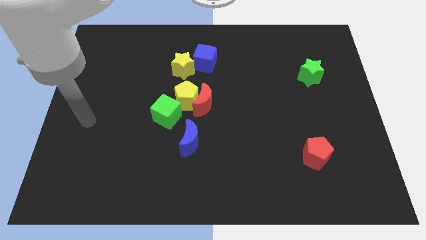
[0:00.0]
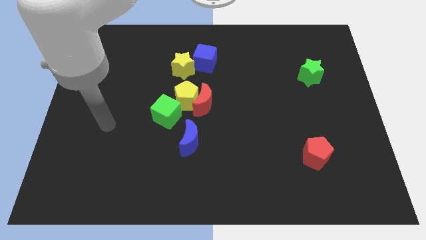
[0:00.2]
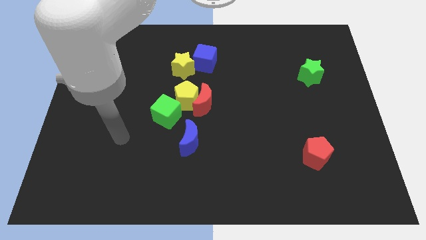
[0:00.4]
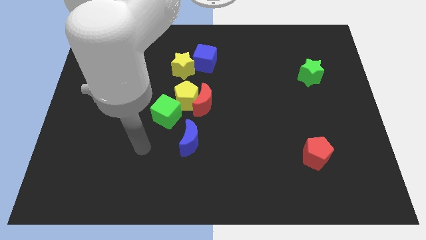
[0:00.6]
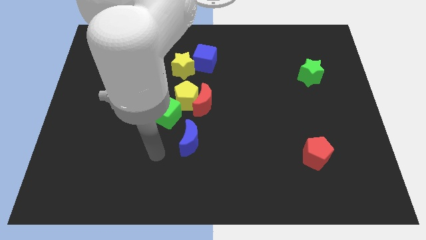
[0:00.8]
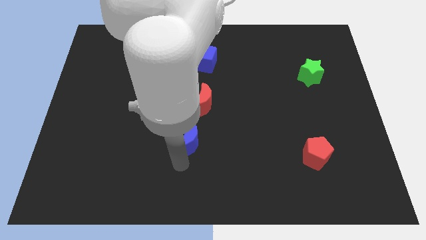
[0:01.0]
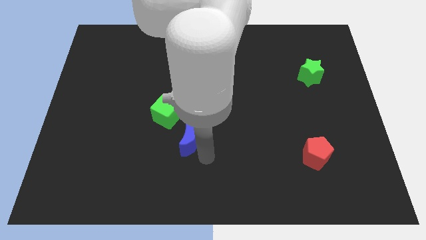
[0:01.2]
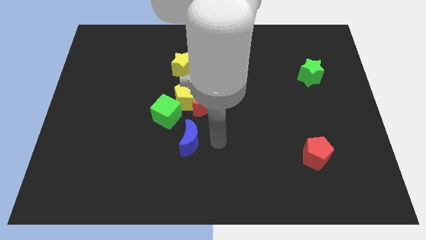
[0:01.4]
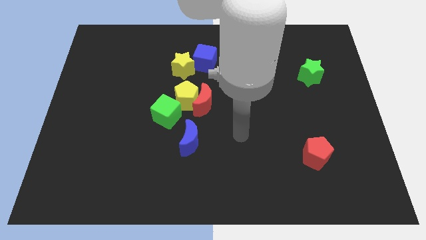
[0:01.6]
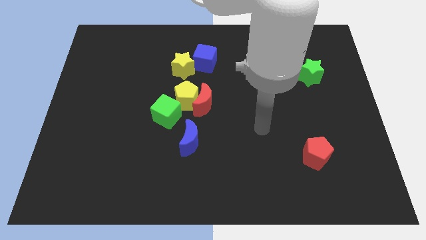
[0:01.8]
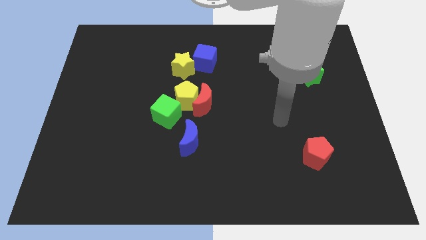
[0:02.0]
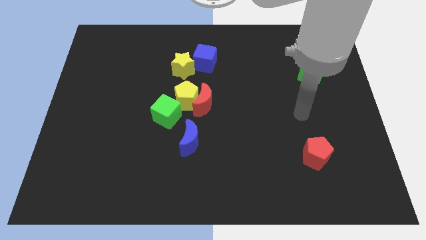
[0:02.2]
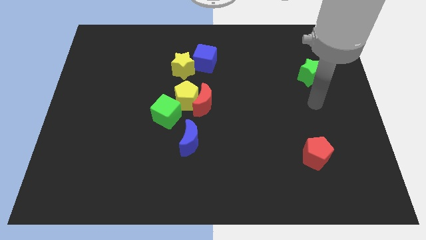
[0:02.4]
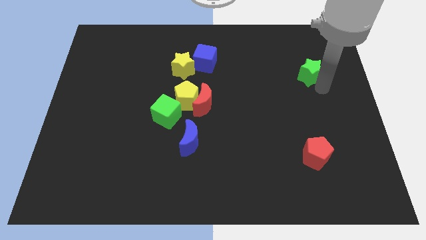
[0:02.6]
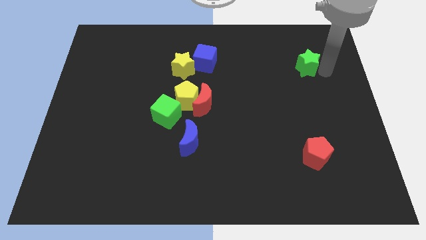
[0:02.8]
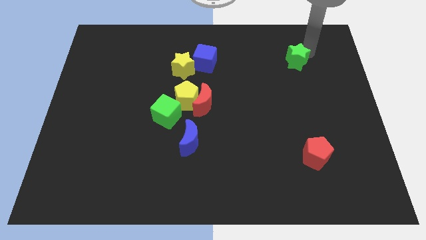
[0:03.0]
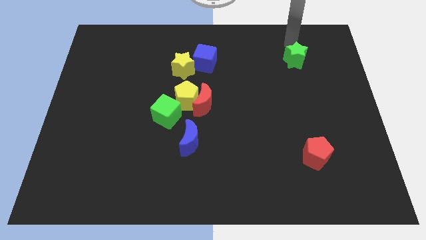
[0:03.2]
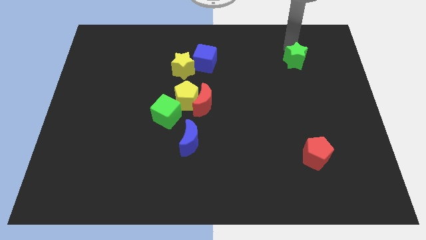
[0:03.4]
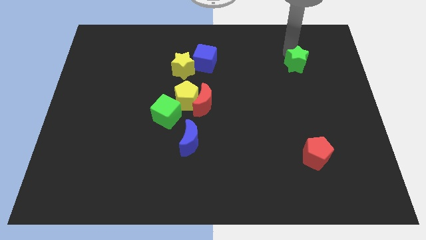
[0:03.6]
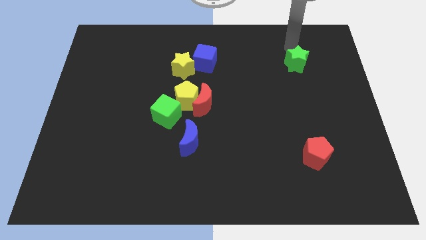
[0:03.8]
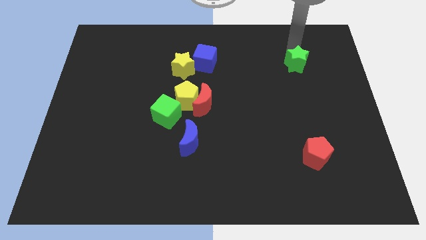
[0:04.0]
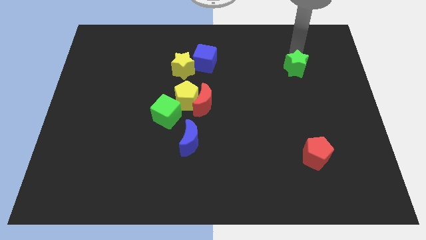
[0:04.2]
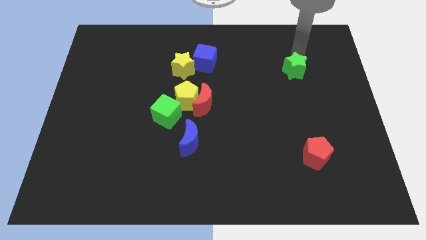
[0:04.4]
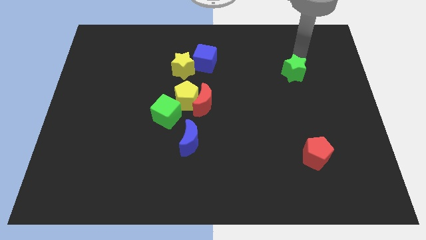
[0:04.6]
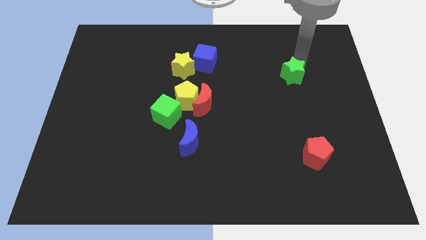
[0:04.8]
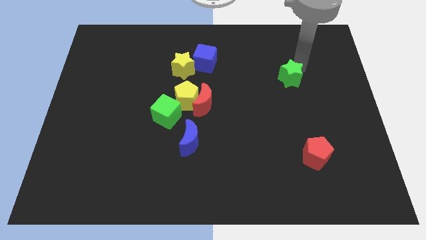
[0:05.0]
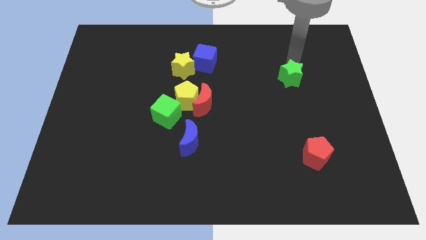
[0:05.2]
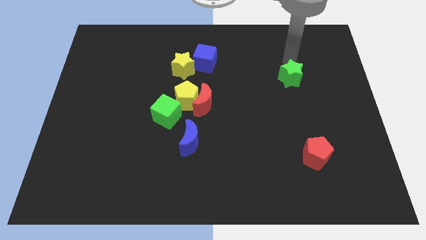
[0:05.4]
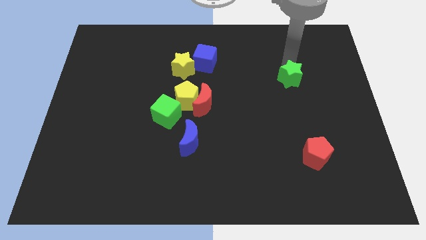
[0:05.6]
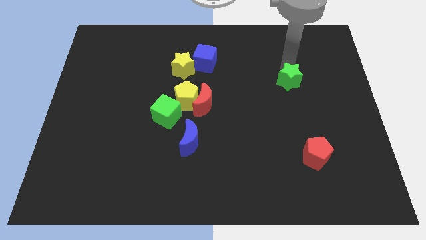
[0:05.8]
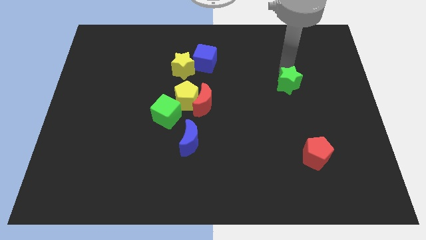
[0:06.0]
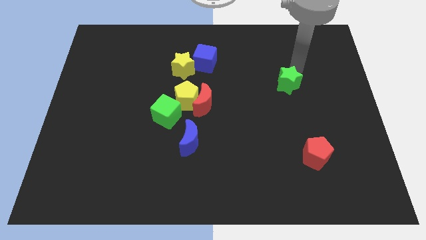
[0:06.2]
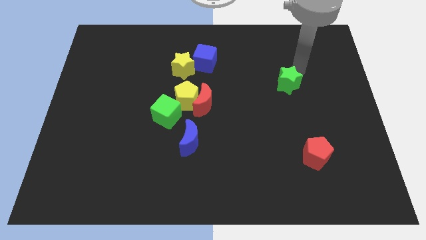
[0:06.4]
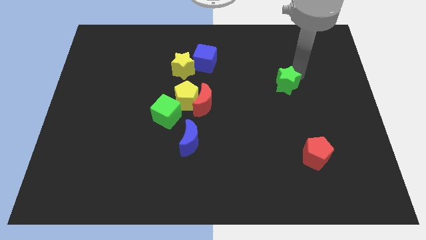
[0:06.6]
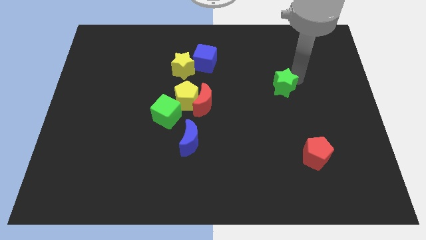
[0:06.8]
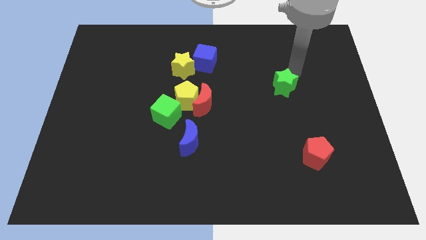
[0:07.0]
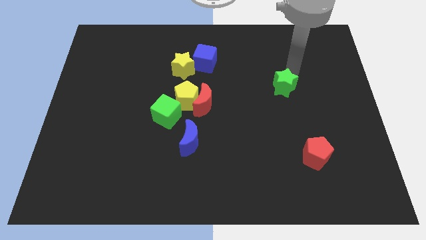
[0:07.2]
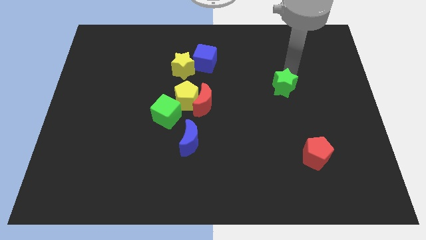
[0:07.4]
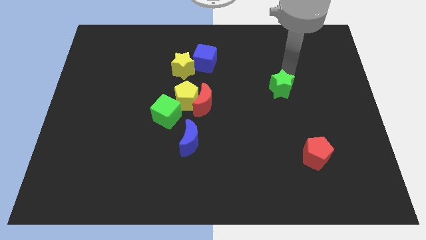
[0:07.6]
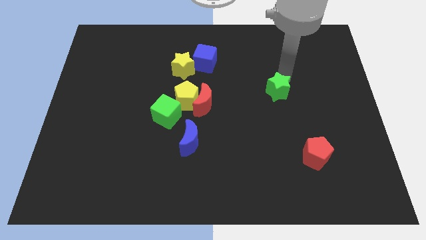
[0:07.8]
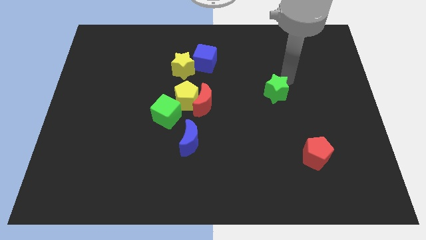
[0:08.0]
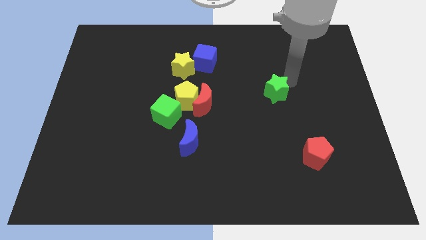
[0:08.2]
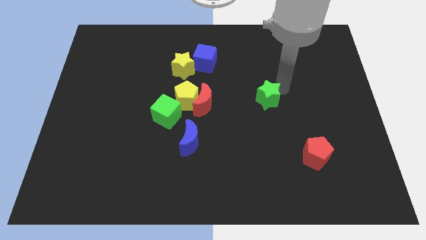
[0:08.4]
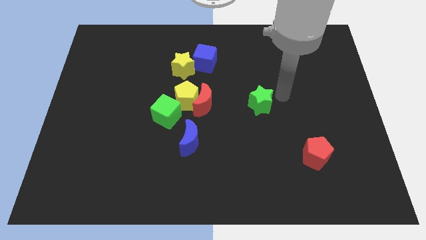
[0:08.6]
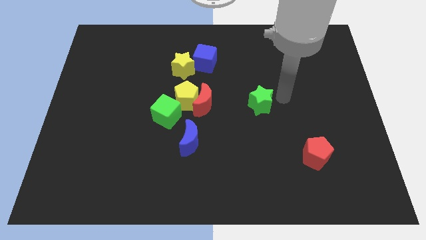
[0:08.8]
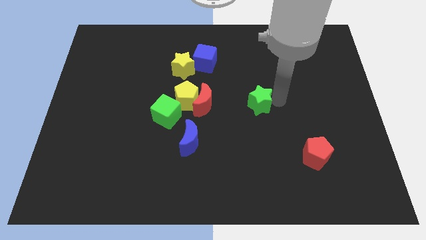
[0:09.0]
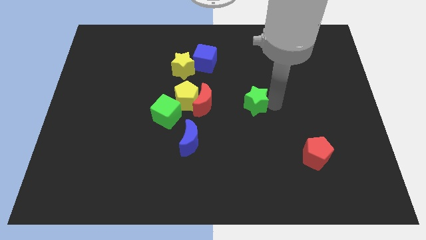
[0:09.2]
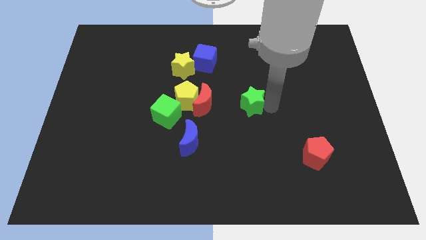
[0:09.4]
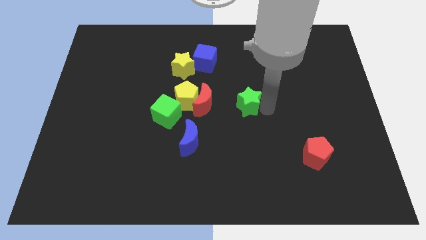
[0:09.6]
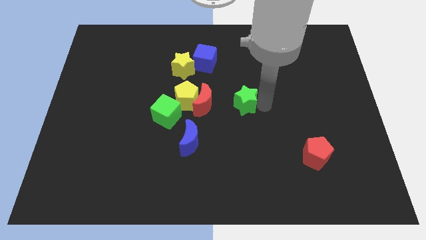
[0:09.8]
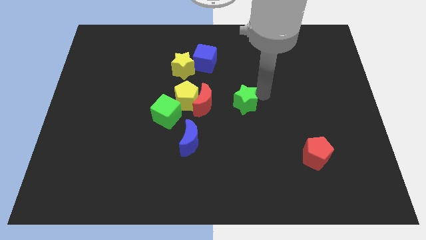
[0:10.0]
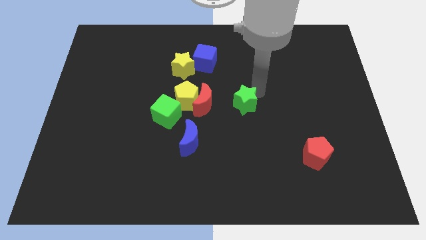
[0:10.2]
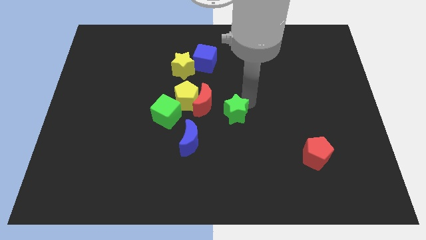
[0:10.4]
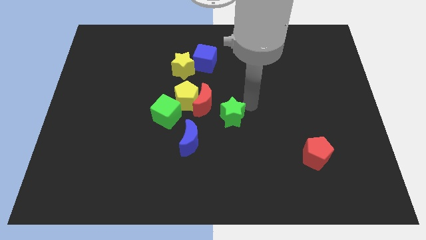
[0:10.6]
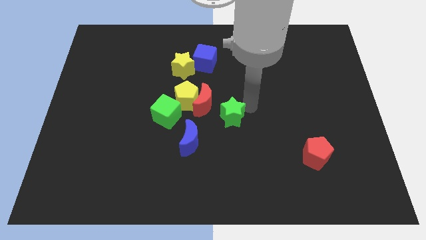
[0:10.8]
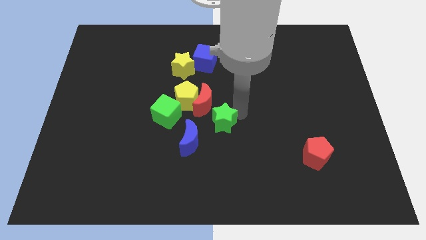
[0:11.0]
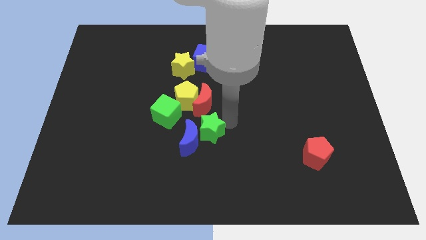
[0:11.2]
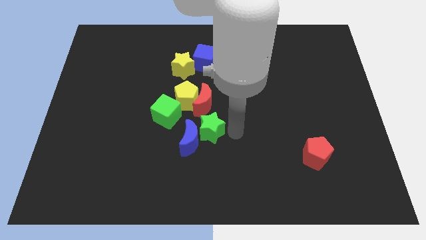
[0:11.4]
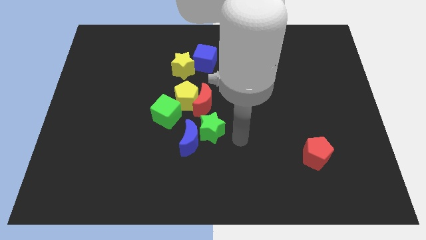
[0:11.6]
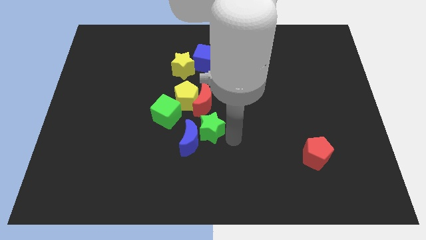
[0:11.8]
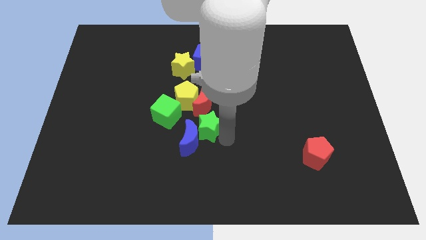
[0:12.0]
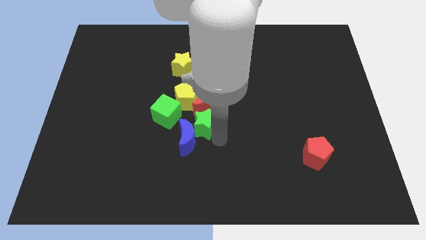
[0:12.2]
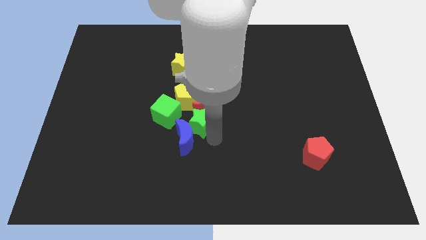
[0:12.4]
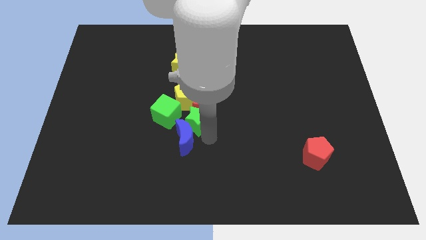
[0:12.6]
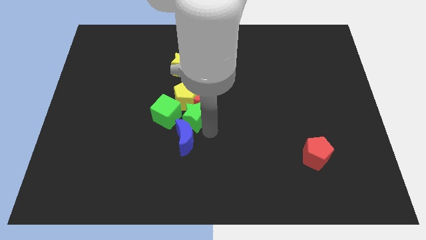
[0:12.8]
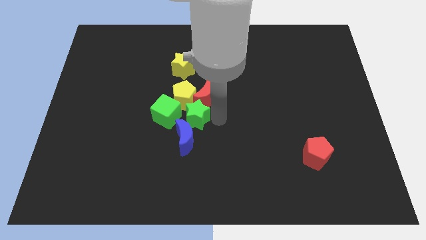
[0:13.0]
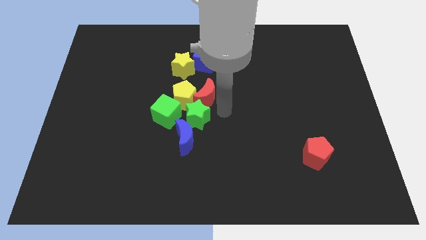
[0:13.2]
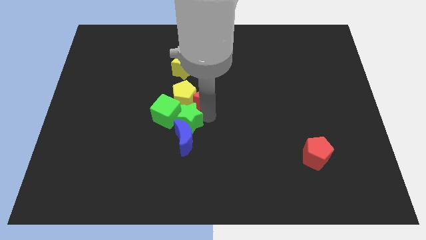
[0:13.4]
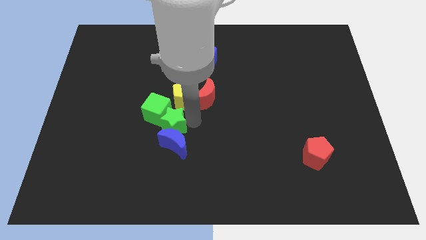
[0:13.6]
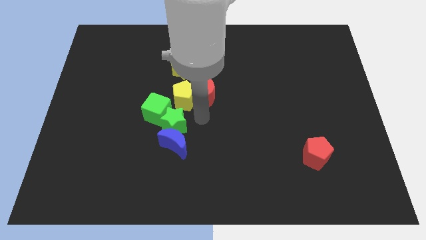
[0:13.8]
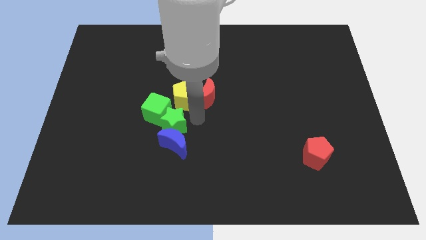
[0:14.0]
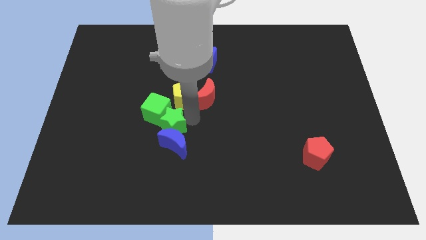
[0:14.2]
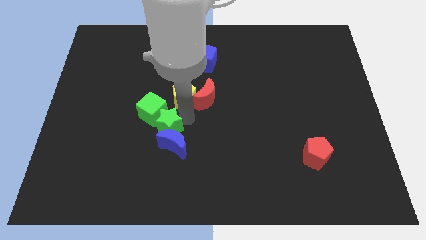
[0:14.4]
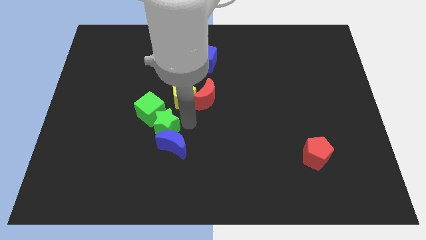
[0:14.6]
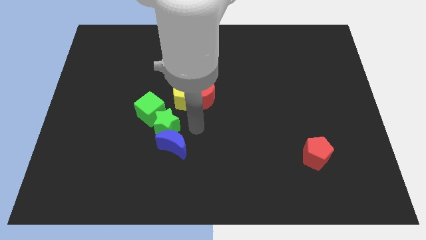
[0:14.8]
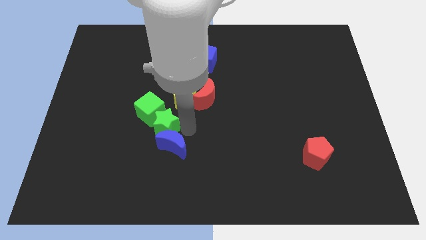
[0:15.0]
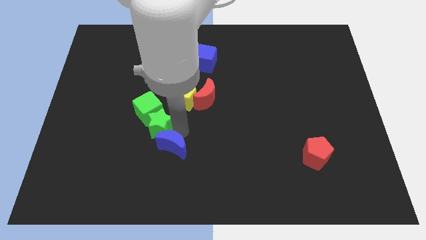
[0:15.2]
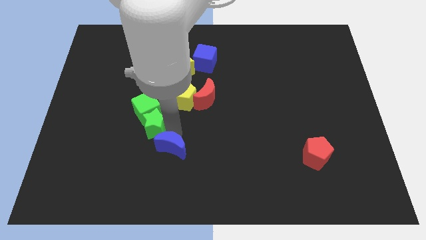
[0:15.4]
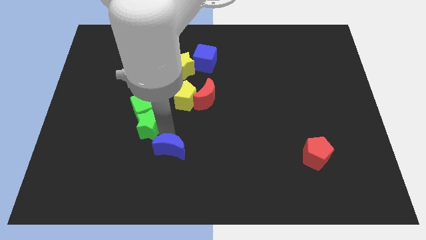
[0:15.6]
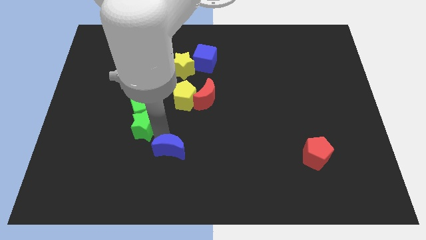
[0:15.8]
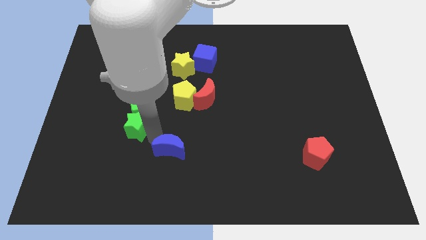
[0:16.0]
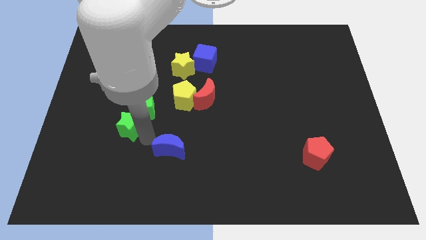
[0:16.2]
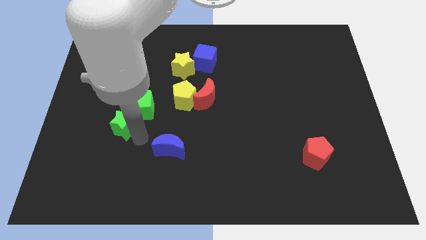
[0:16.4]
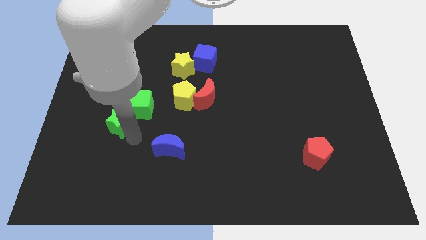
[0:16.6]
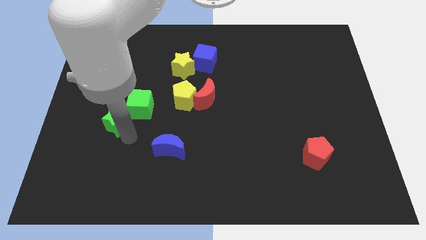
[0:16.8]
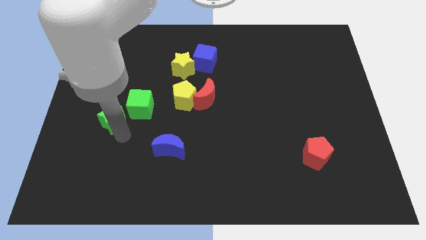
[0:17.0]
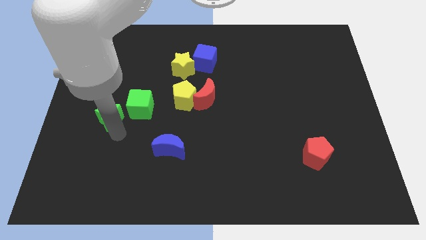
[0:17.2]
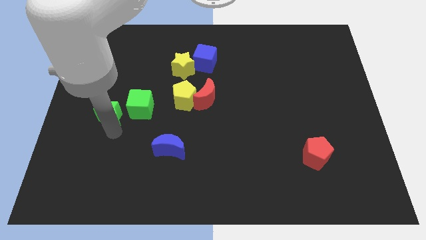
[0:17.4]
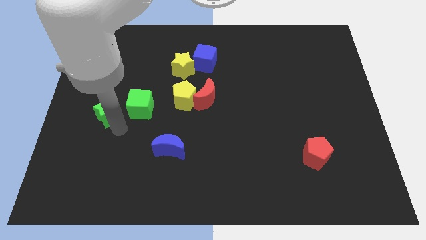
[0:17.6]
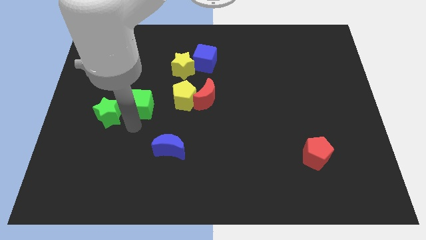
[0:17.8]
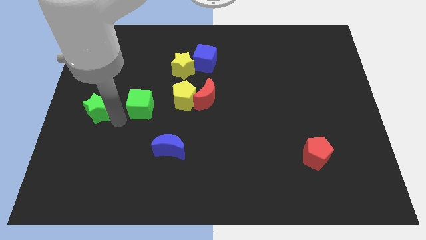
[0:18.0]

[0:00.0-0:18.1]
move the green star to the left side
